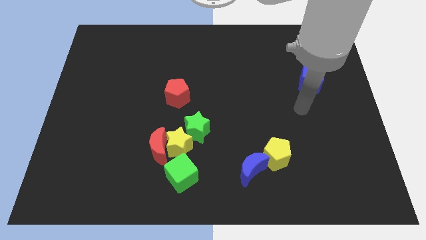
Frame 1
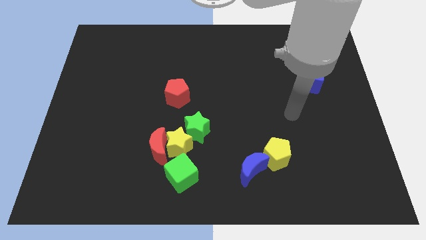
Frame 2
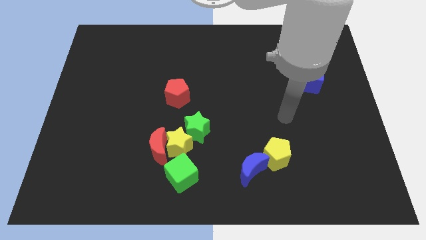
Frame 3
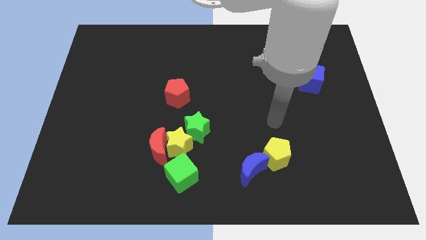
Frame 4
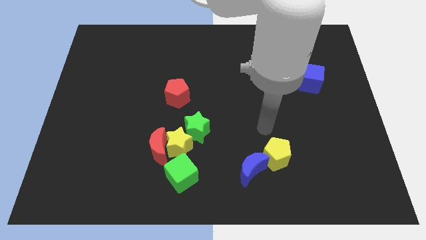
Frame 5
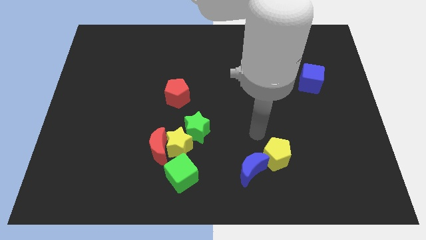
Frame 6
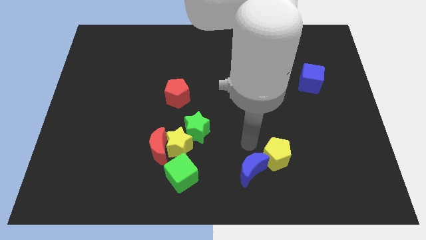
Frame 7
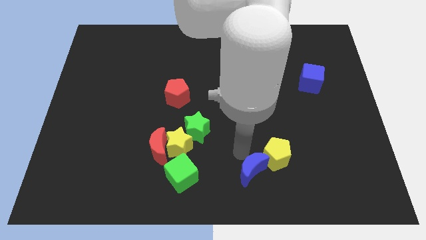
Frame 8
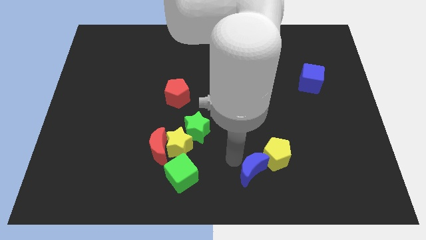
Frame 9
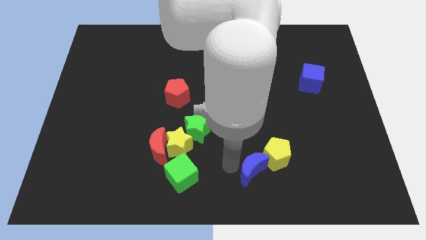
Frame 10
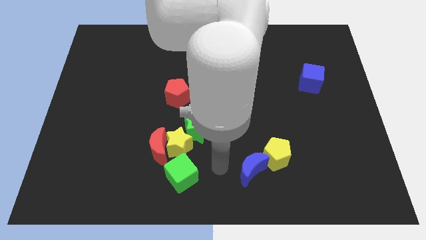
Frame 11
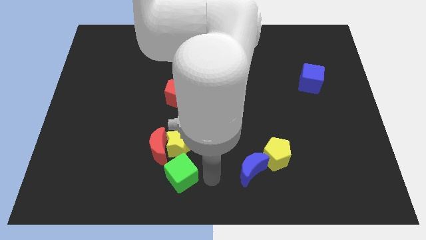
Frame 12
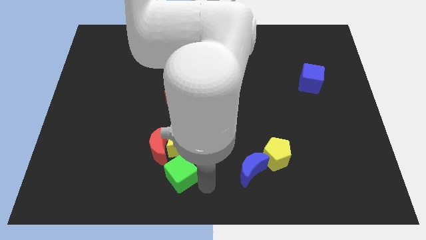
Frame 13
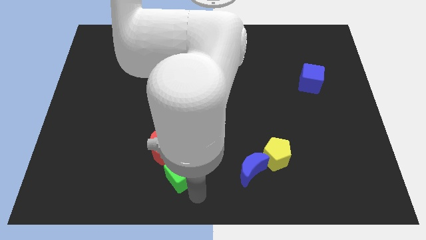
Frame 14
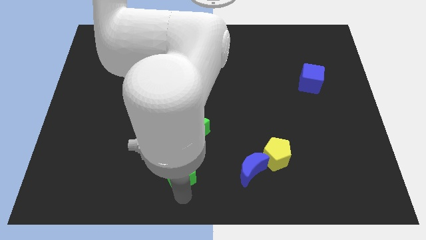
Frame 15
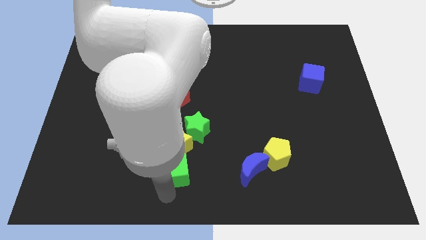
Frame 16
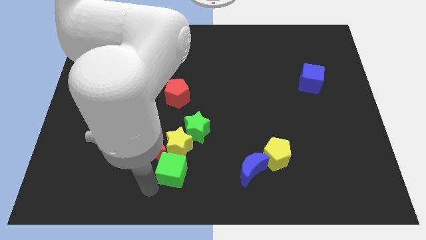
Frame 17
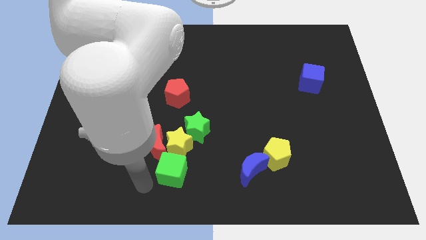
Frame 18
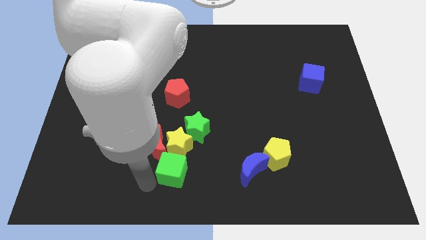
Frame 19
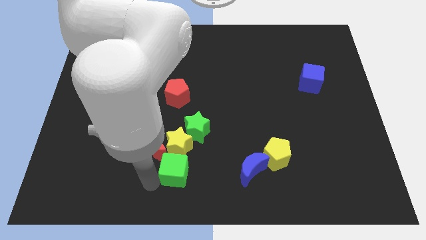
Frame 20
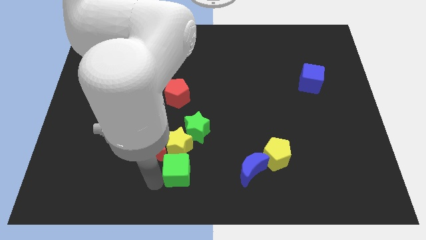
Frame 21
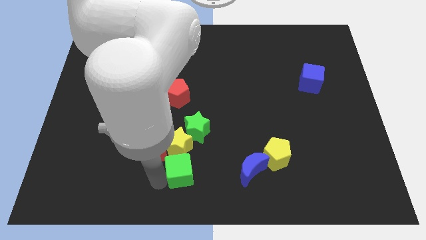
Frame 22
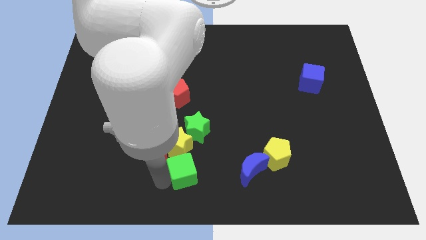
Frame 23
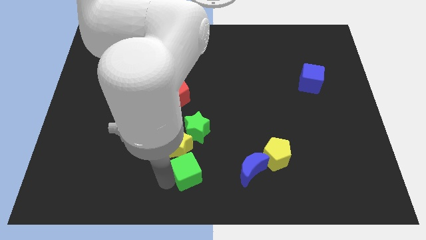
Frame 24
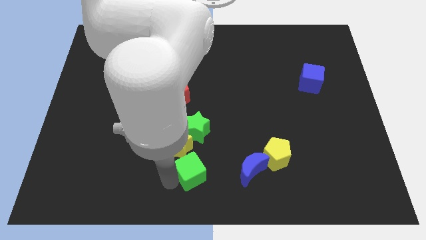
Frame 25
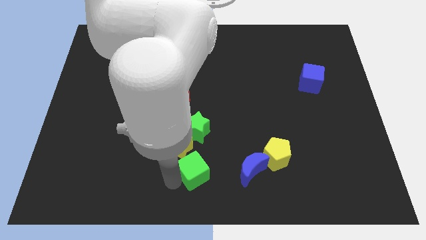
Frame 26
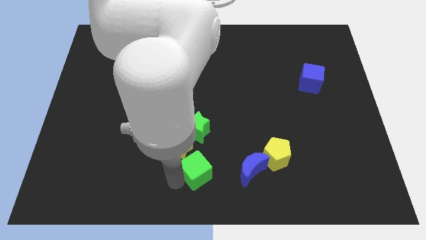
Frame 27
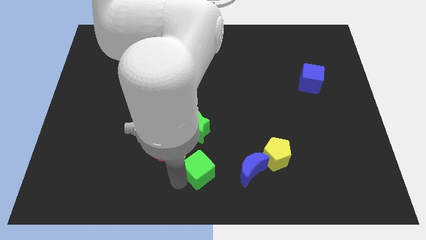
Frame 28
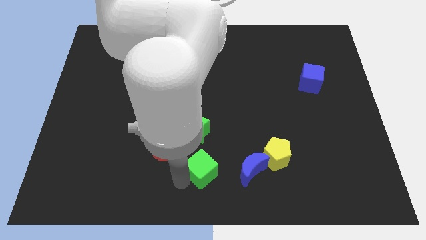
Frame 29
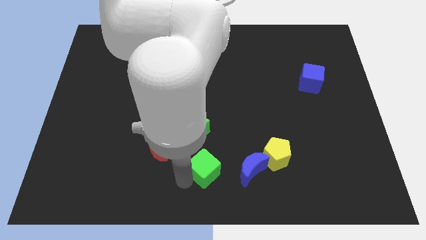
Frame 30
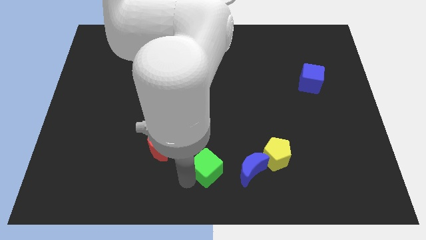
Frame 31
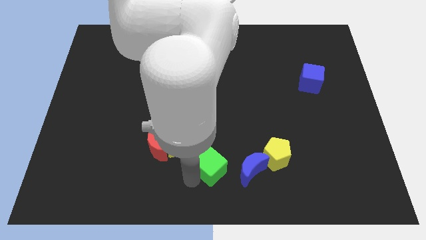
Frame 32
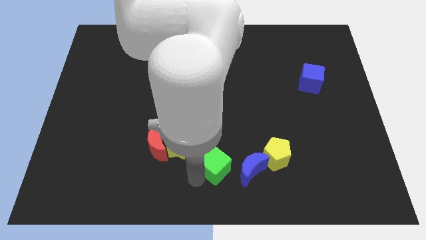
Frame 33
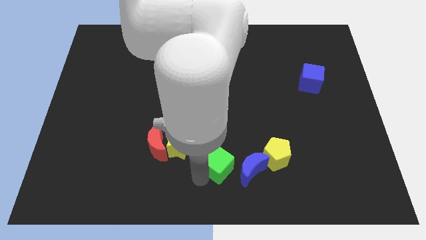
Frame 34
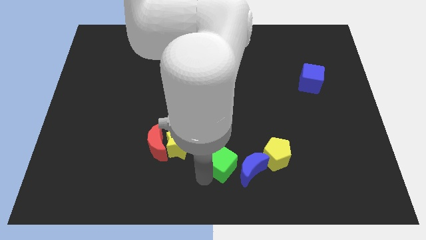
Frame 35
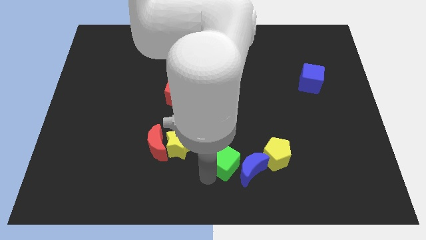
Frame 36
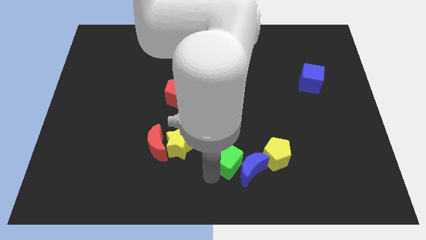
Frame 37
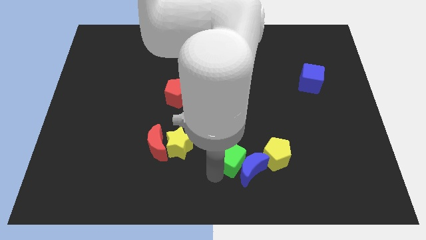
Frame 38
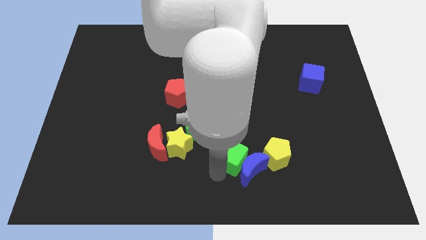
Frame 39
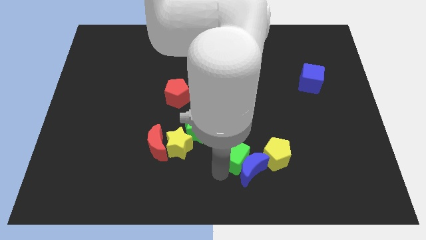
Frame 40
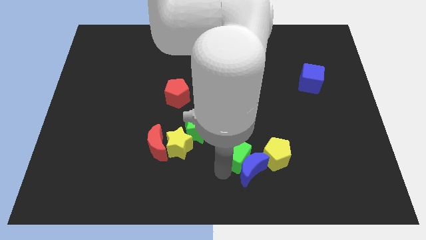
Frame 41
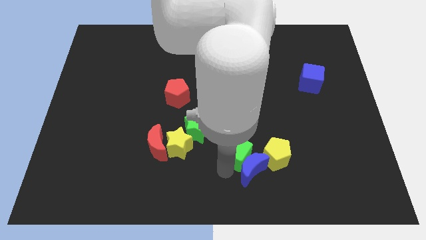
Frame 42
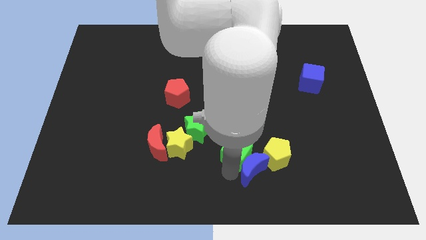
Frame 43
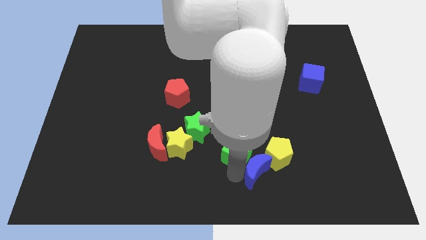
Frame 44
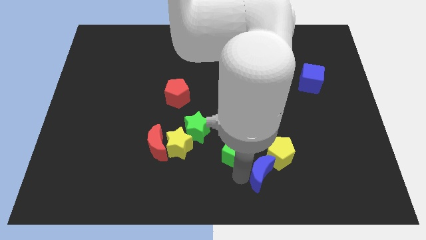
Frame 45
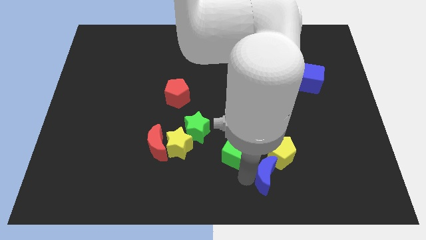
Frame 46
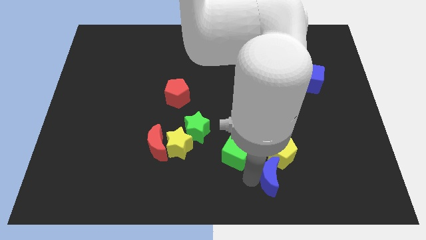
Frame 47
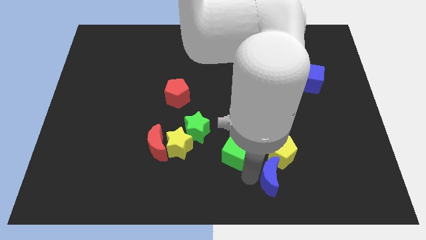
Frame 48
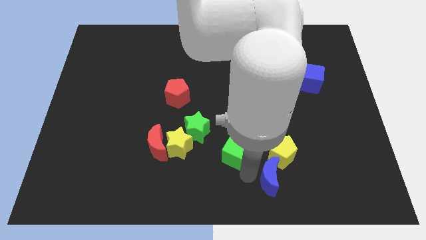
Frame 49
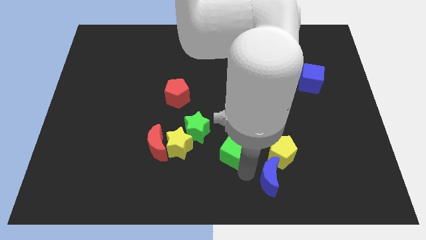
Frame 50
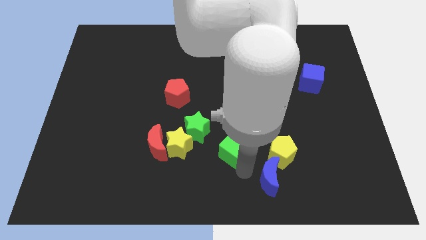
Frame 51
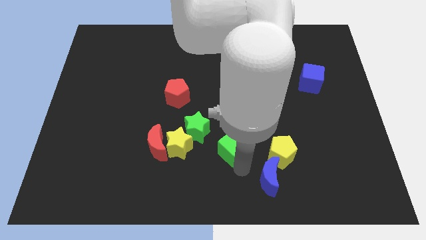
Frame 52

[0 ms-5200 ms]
move the green cube to the right side of the green star

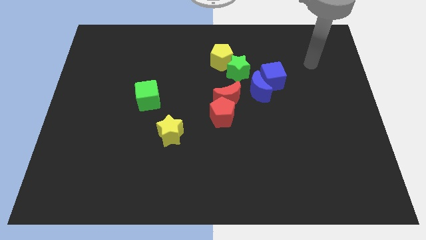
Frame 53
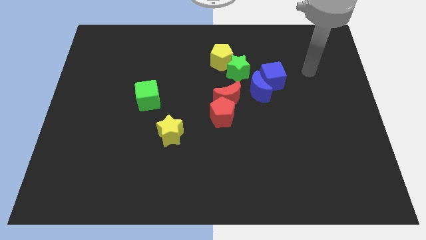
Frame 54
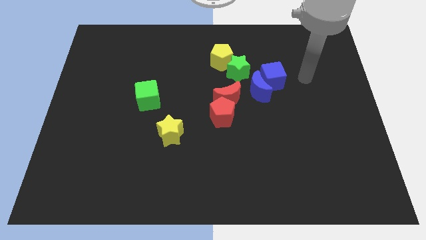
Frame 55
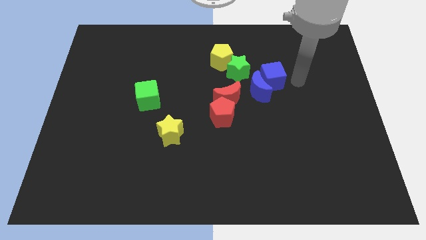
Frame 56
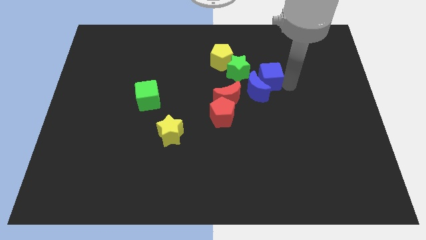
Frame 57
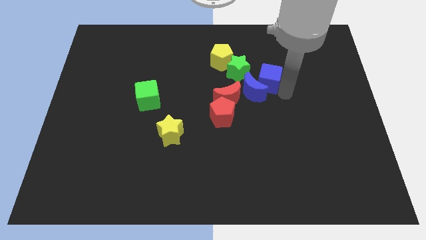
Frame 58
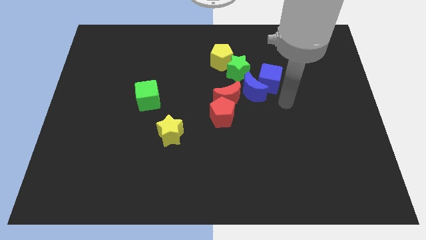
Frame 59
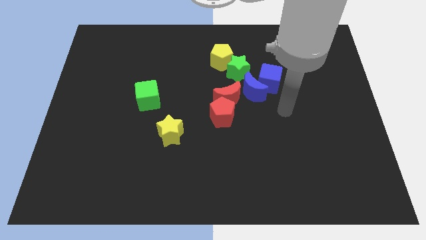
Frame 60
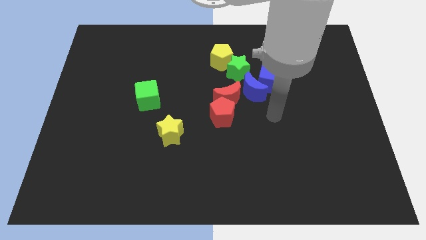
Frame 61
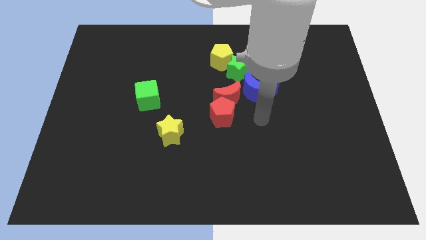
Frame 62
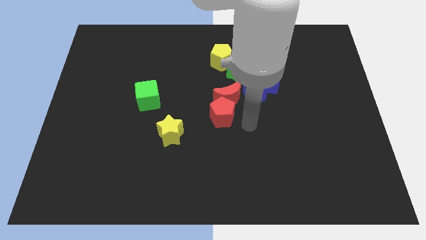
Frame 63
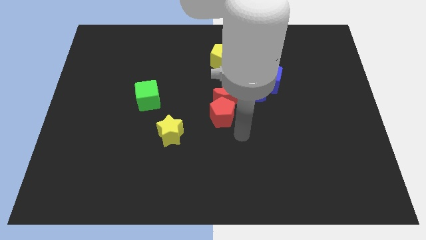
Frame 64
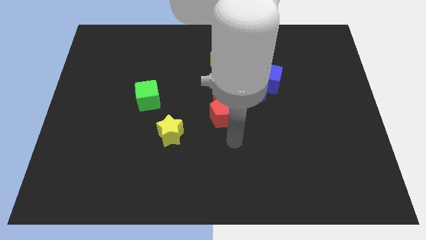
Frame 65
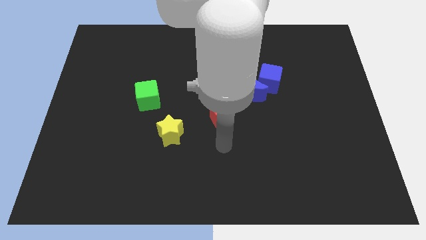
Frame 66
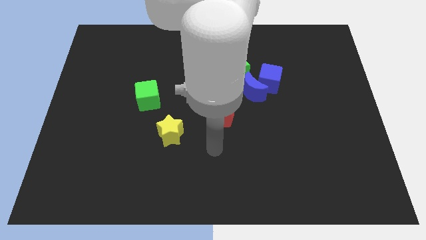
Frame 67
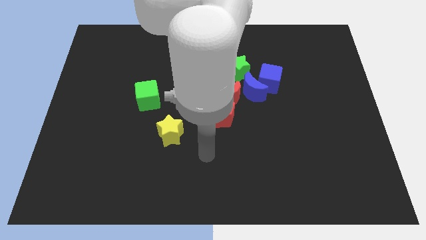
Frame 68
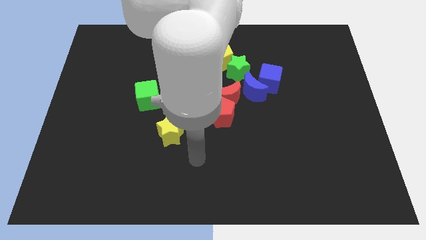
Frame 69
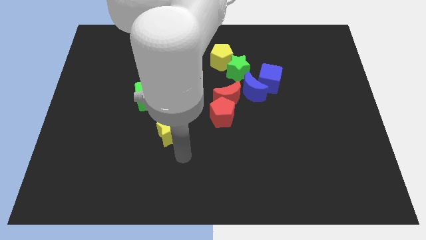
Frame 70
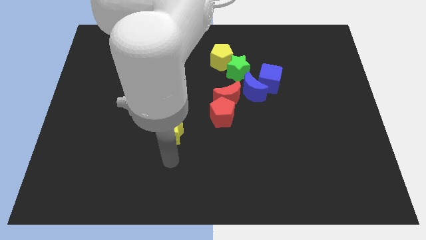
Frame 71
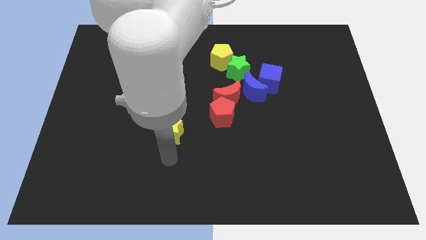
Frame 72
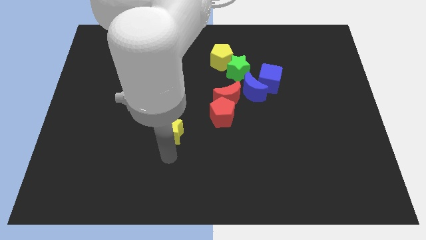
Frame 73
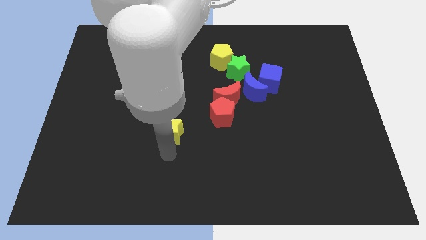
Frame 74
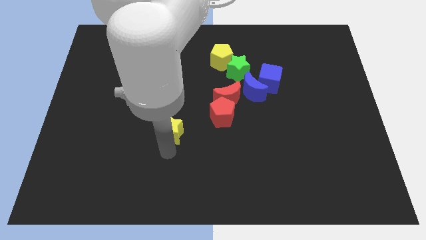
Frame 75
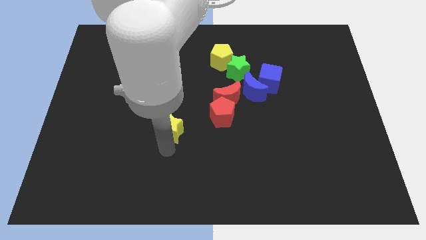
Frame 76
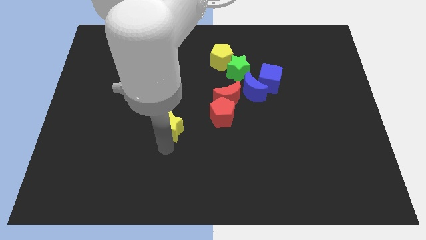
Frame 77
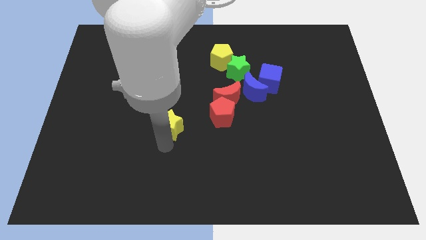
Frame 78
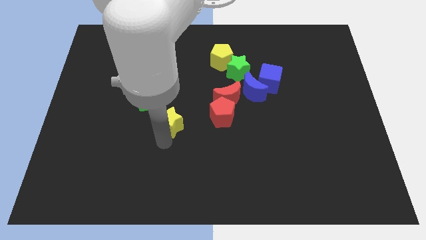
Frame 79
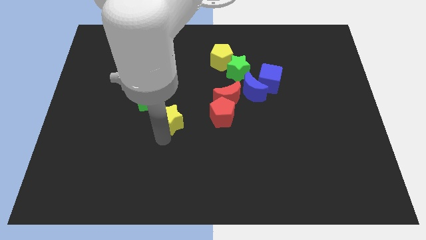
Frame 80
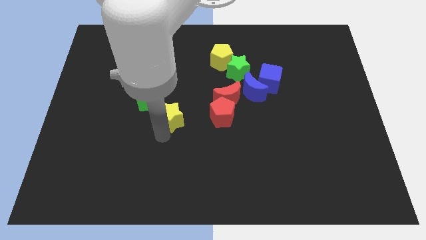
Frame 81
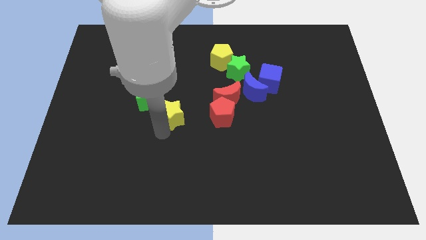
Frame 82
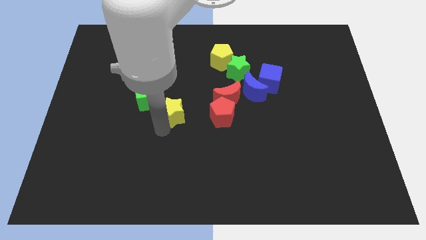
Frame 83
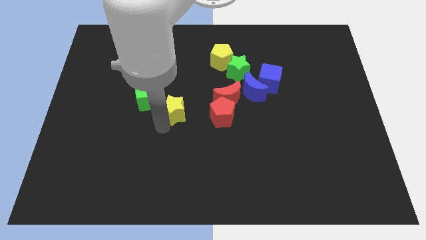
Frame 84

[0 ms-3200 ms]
put the yellow star just left of the red moon
